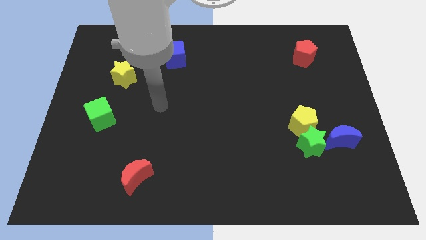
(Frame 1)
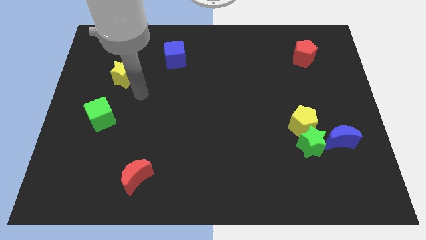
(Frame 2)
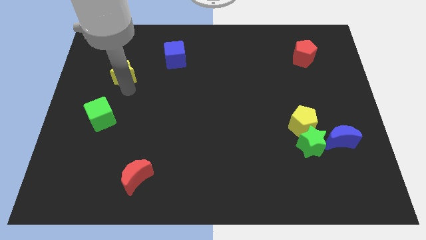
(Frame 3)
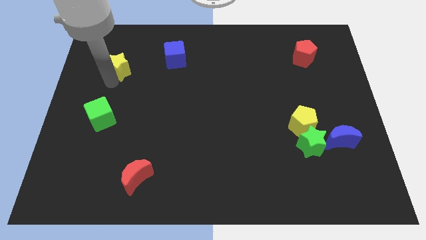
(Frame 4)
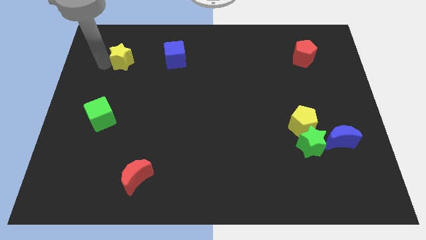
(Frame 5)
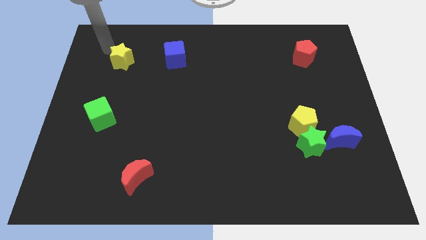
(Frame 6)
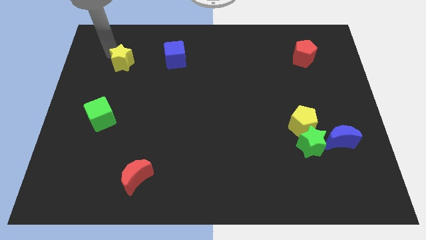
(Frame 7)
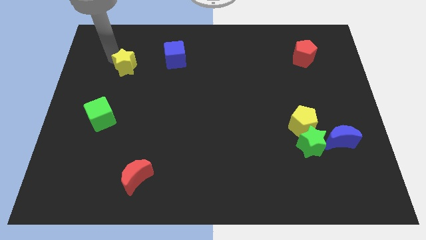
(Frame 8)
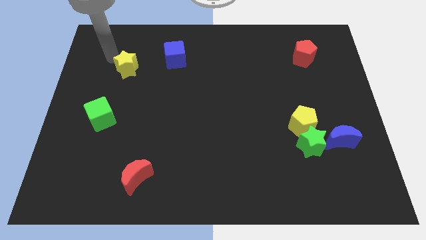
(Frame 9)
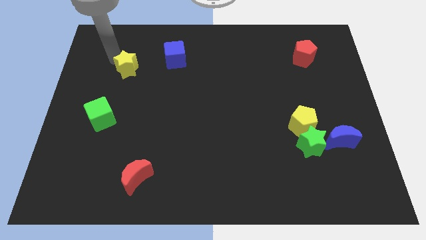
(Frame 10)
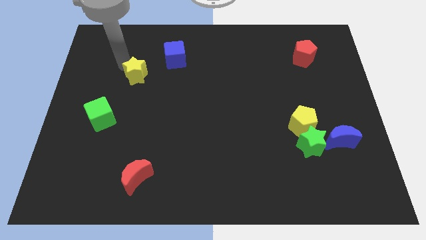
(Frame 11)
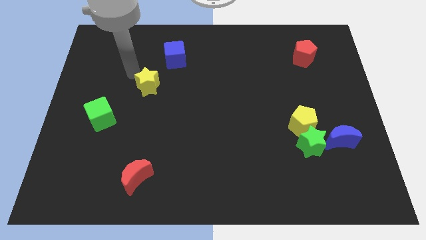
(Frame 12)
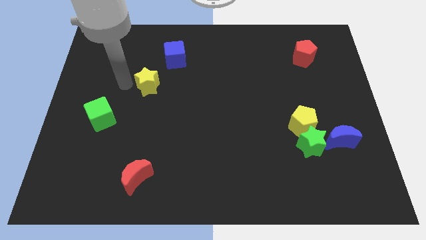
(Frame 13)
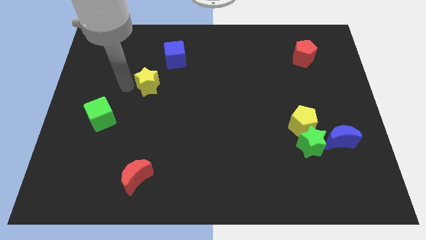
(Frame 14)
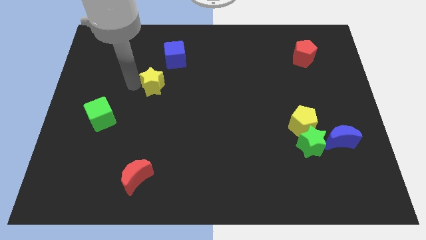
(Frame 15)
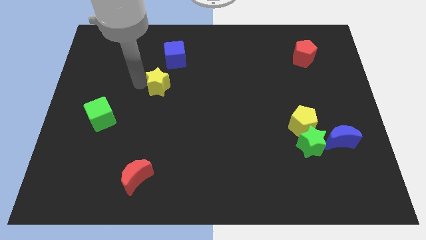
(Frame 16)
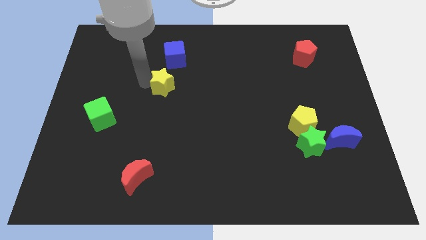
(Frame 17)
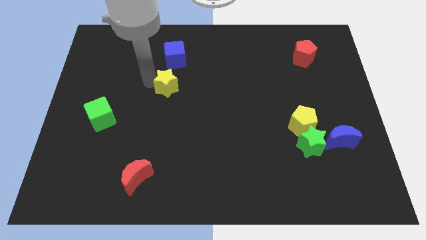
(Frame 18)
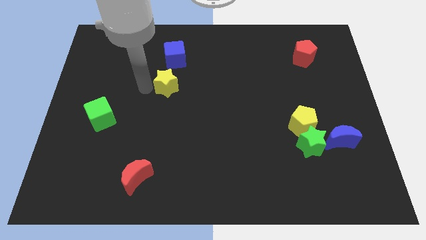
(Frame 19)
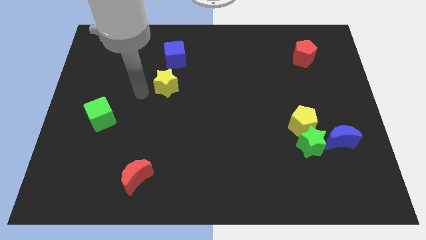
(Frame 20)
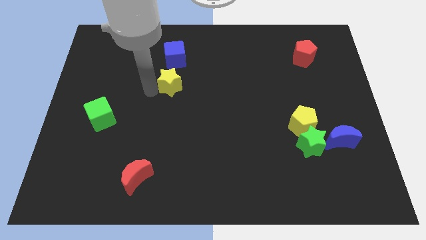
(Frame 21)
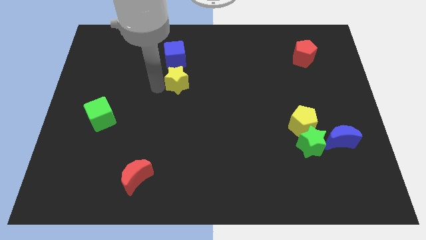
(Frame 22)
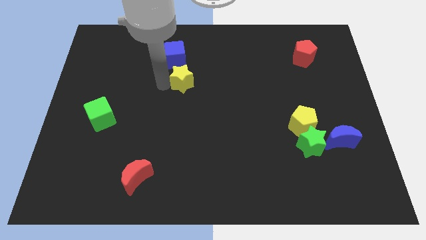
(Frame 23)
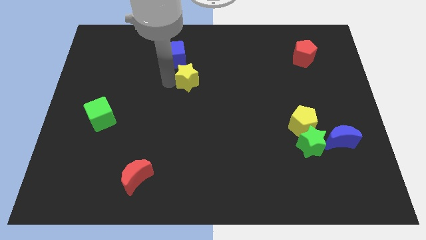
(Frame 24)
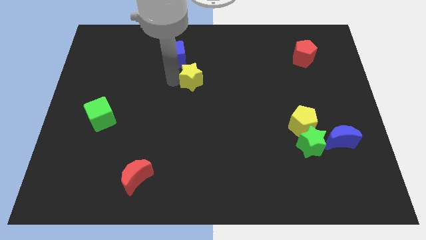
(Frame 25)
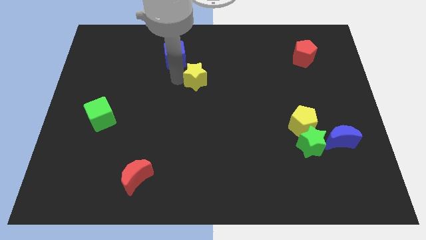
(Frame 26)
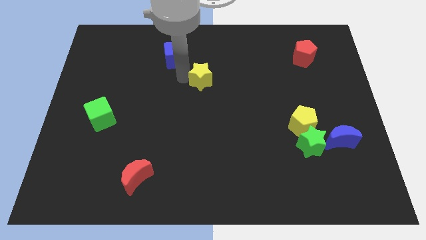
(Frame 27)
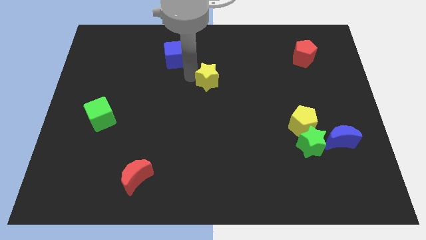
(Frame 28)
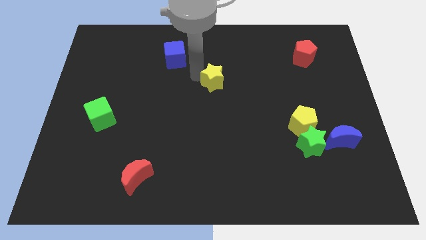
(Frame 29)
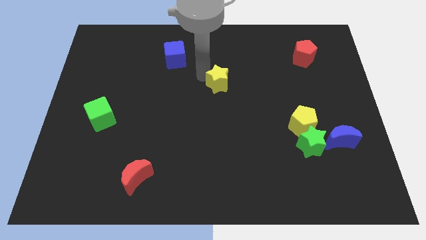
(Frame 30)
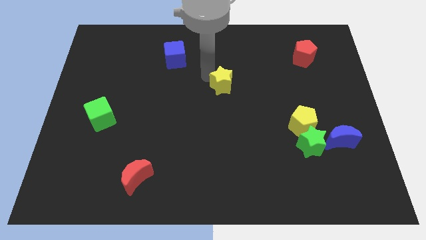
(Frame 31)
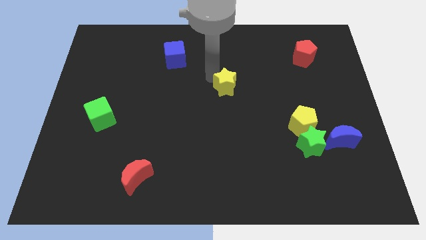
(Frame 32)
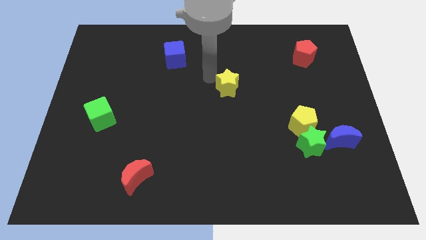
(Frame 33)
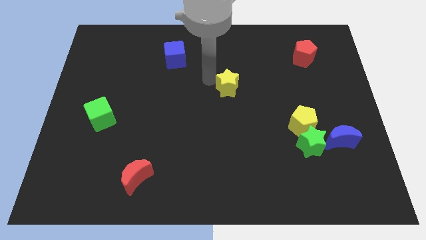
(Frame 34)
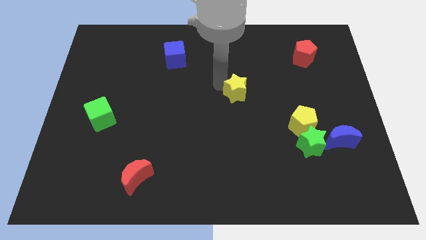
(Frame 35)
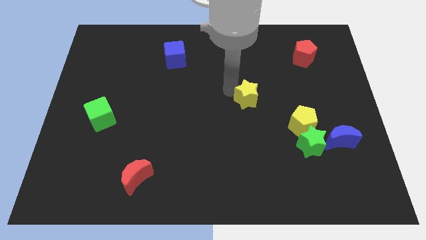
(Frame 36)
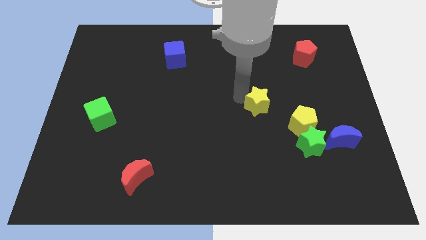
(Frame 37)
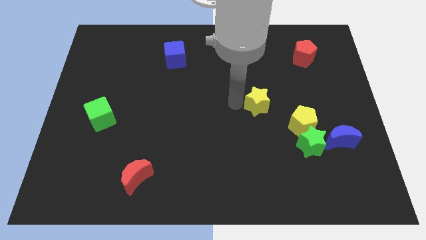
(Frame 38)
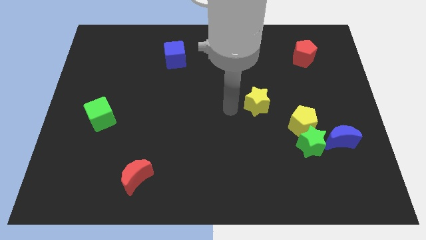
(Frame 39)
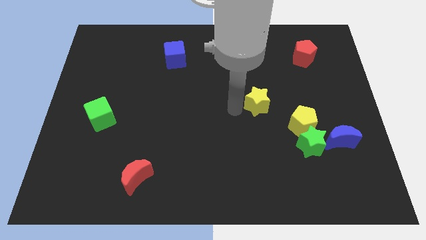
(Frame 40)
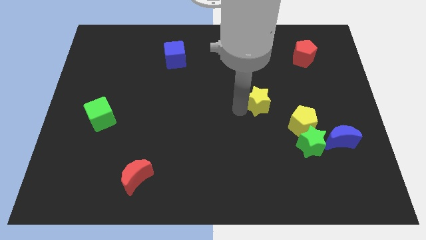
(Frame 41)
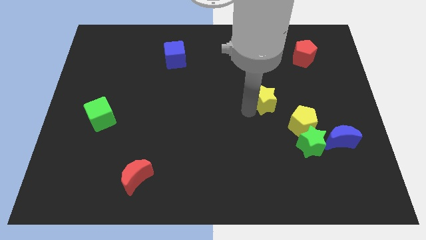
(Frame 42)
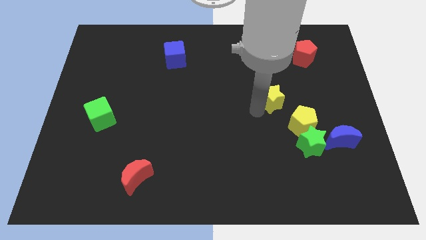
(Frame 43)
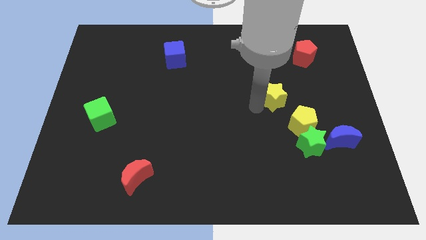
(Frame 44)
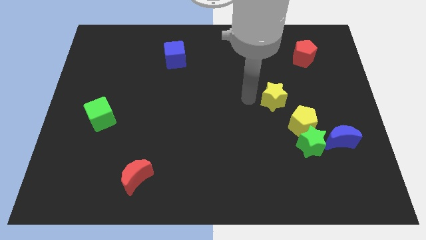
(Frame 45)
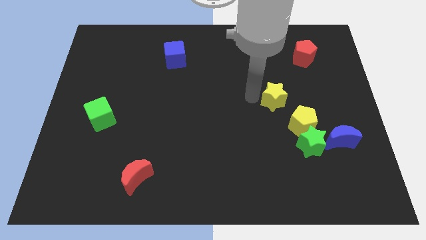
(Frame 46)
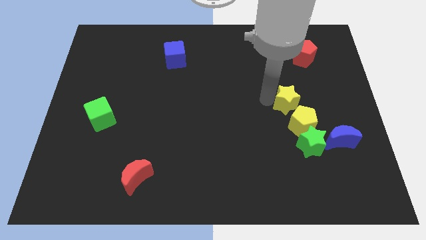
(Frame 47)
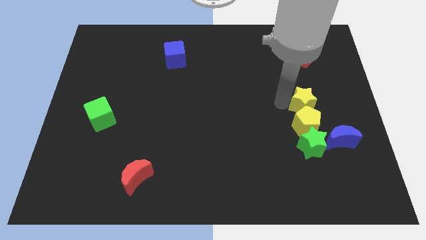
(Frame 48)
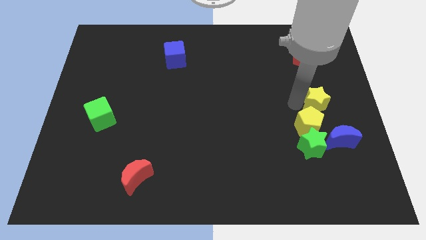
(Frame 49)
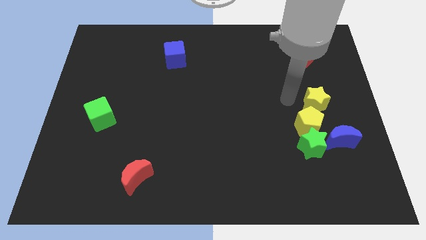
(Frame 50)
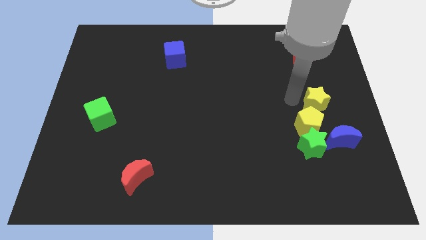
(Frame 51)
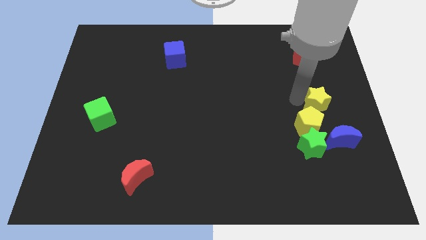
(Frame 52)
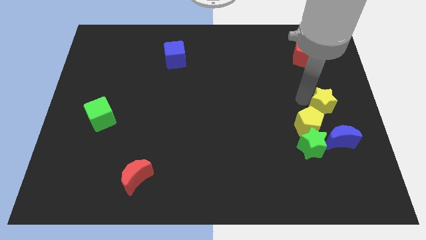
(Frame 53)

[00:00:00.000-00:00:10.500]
push the yellow star to the right side of the board

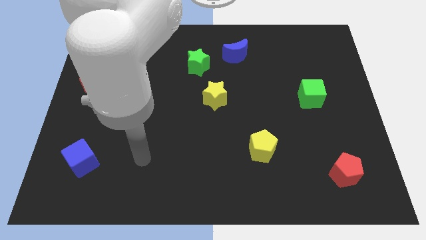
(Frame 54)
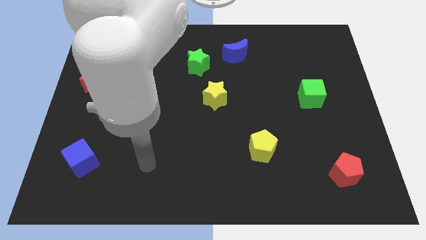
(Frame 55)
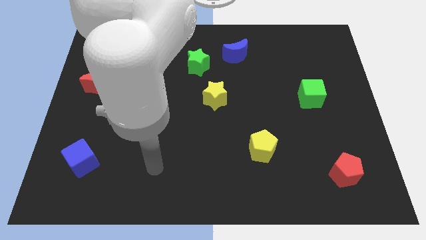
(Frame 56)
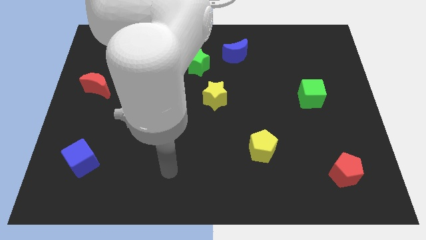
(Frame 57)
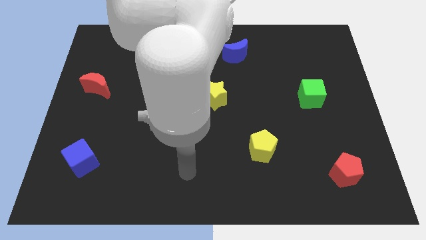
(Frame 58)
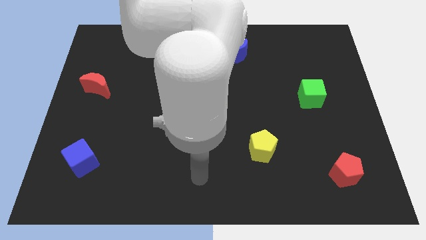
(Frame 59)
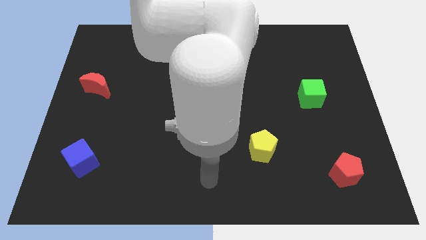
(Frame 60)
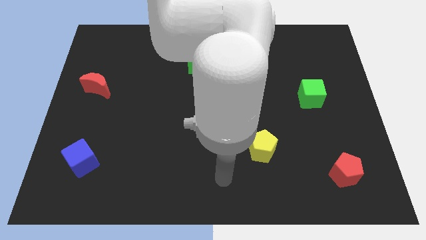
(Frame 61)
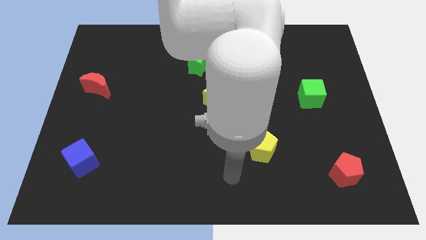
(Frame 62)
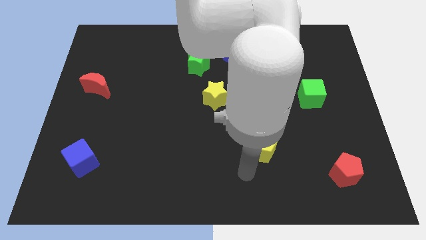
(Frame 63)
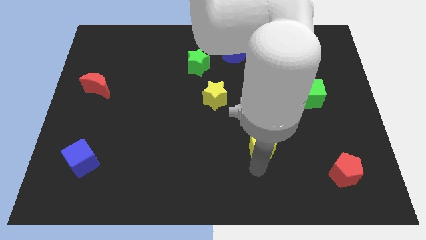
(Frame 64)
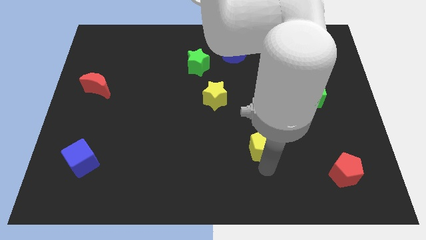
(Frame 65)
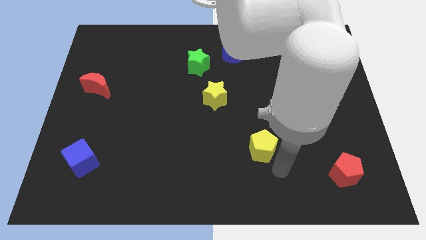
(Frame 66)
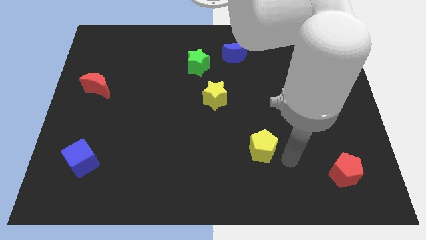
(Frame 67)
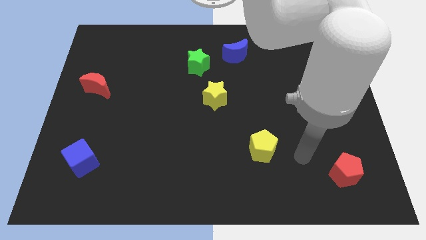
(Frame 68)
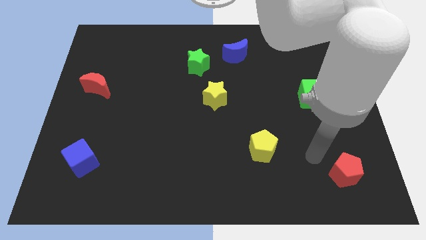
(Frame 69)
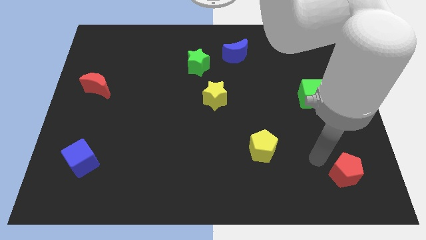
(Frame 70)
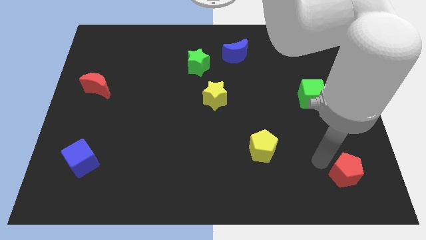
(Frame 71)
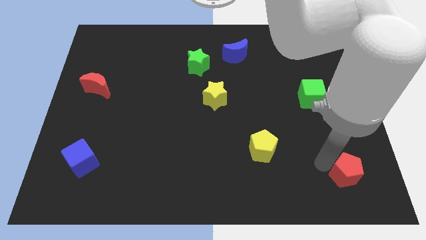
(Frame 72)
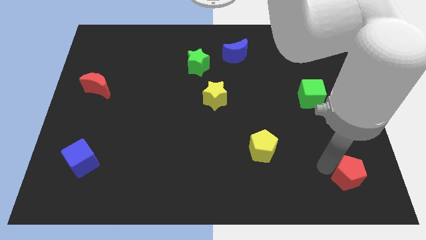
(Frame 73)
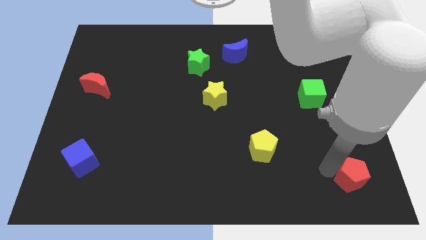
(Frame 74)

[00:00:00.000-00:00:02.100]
slide the red pentagon to the bottom right
